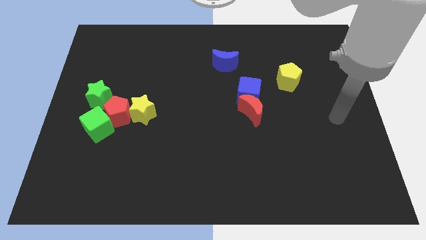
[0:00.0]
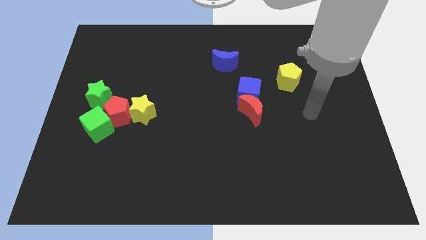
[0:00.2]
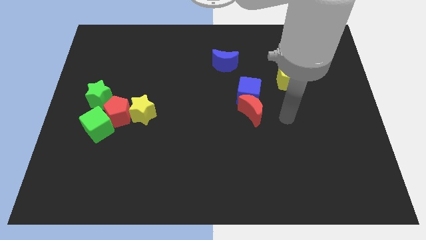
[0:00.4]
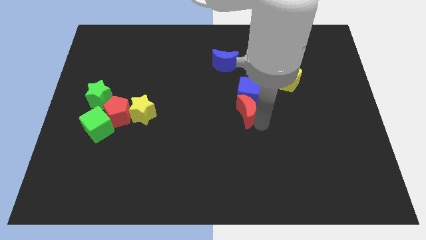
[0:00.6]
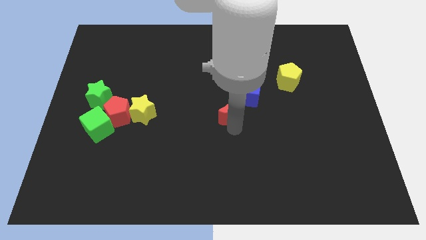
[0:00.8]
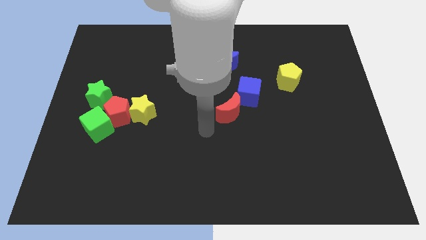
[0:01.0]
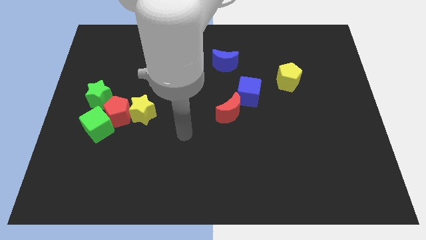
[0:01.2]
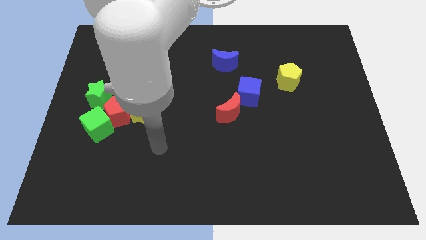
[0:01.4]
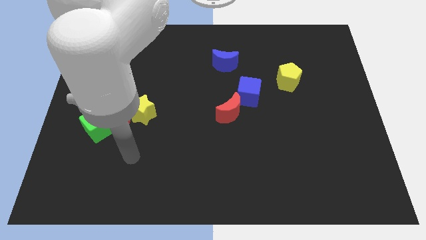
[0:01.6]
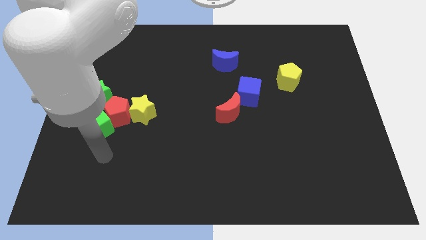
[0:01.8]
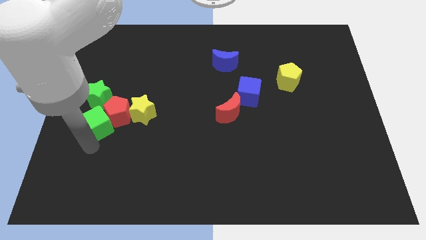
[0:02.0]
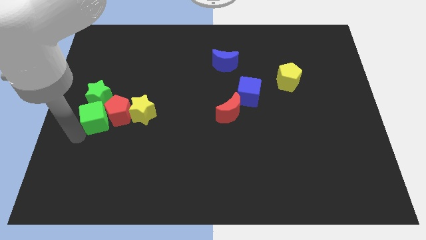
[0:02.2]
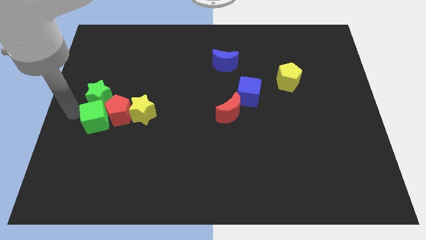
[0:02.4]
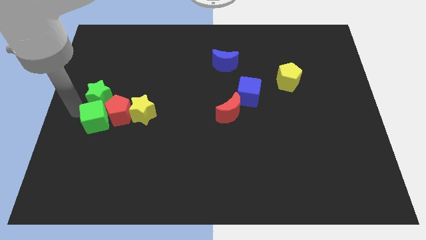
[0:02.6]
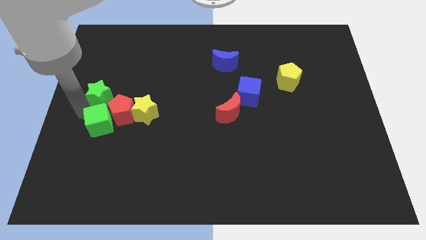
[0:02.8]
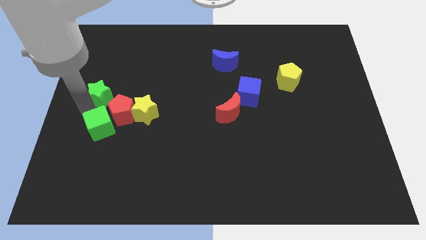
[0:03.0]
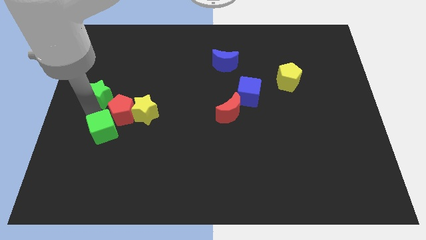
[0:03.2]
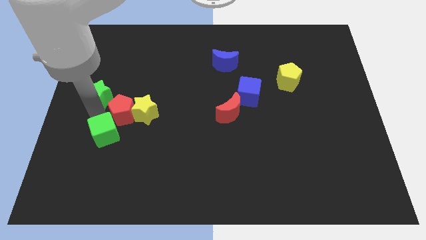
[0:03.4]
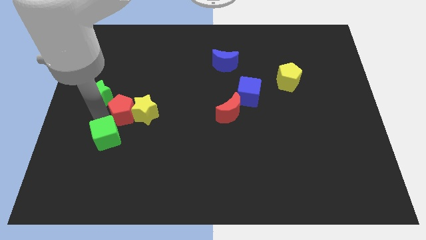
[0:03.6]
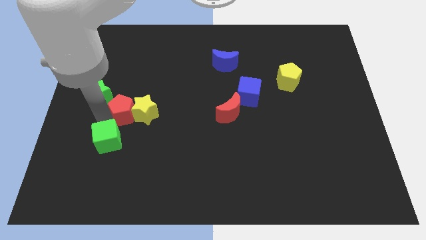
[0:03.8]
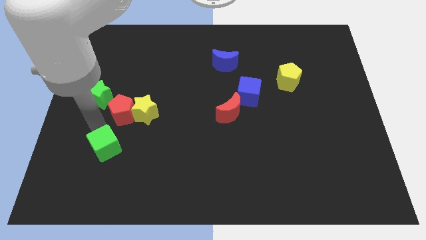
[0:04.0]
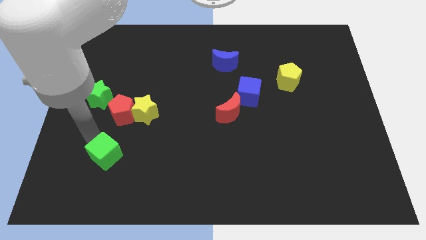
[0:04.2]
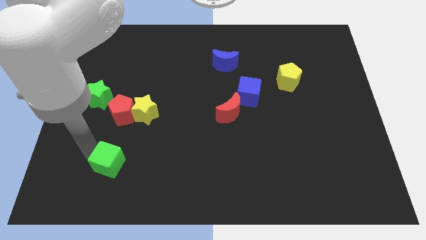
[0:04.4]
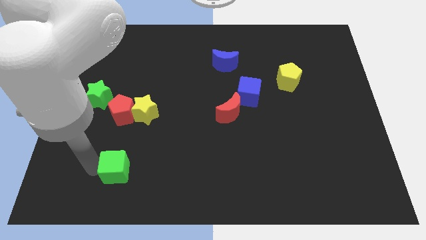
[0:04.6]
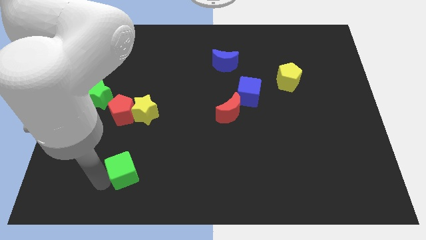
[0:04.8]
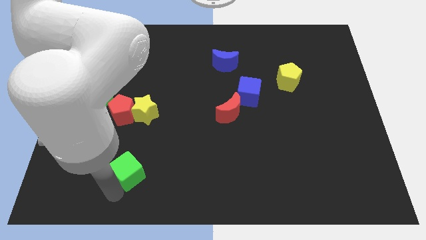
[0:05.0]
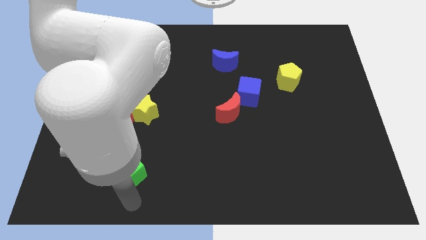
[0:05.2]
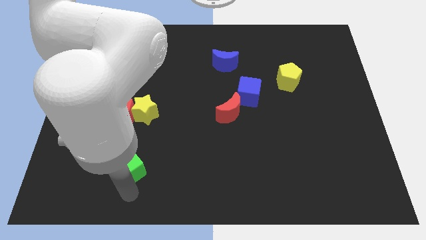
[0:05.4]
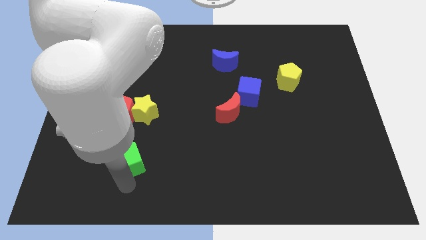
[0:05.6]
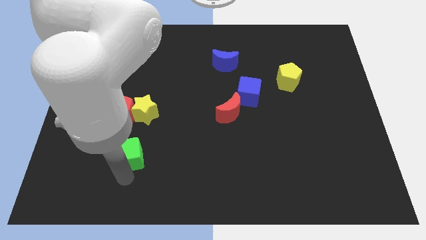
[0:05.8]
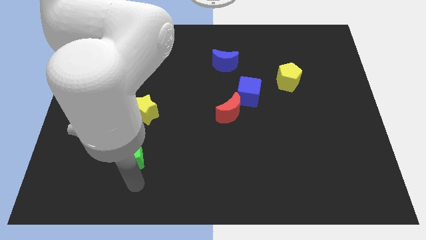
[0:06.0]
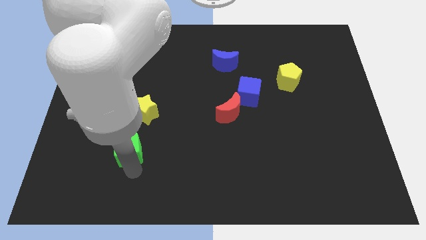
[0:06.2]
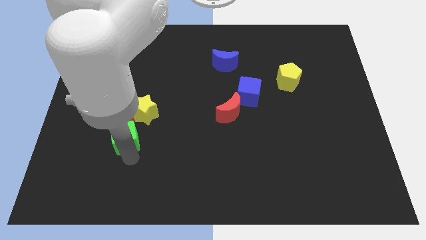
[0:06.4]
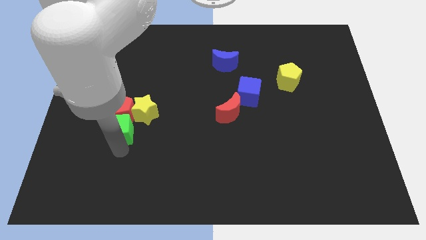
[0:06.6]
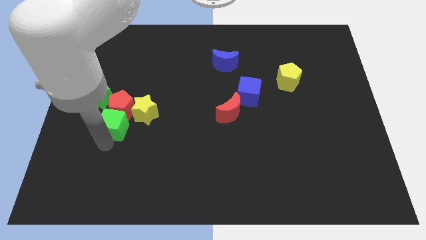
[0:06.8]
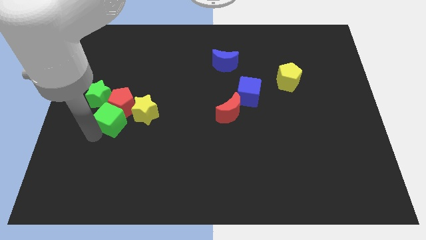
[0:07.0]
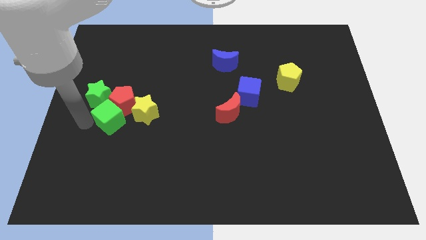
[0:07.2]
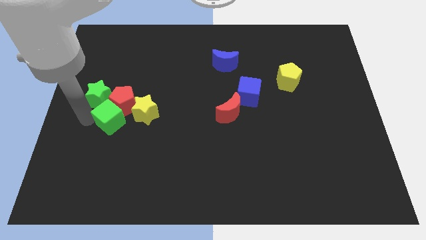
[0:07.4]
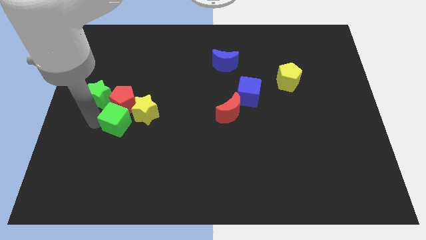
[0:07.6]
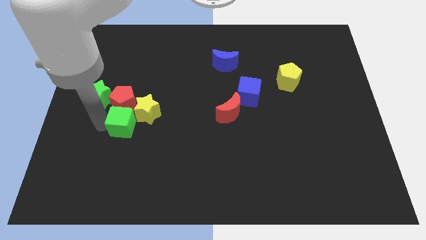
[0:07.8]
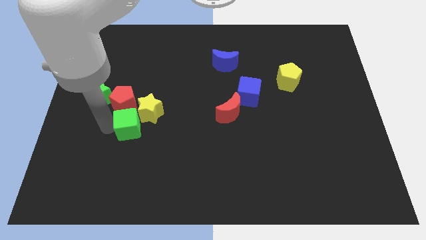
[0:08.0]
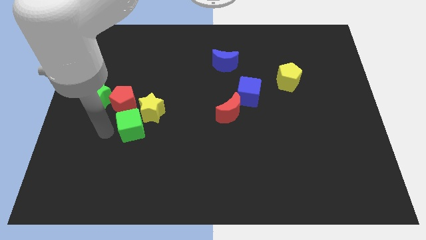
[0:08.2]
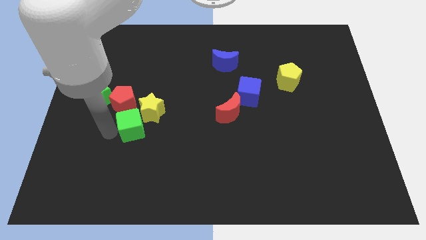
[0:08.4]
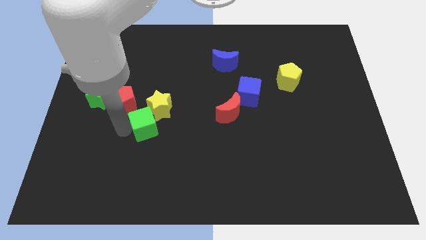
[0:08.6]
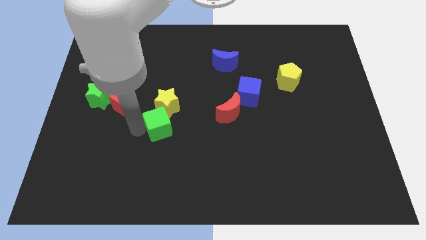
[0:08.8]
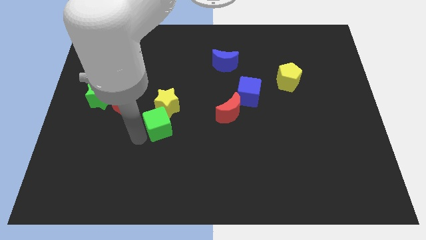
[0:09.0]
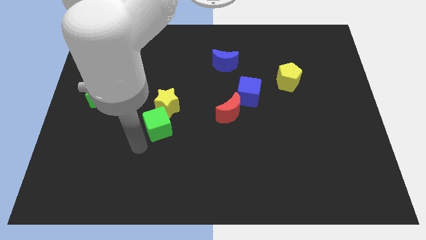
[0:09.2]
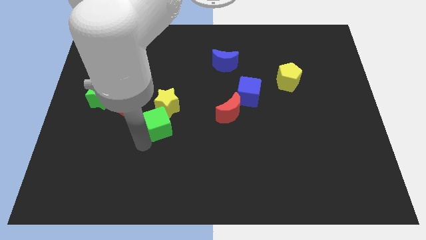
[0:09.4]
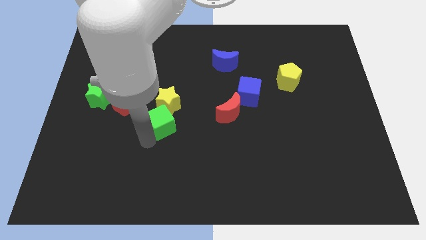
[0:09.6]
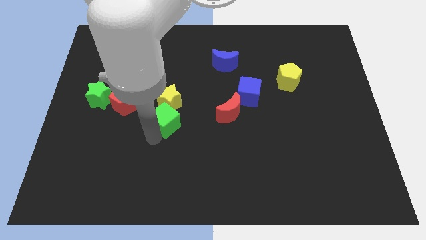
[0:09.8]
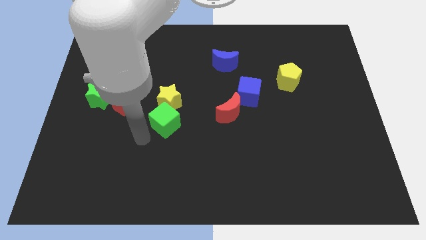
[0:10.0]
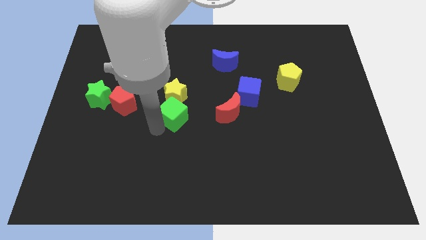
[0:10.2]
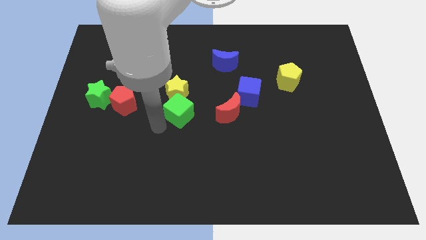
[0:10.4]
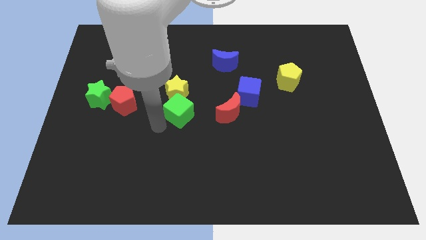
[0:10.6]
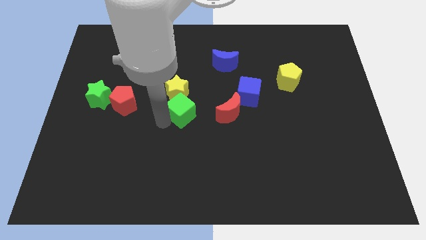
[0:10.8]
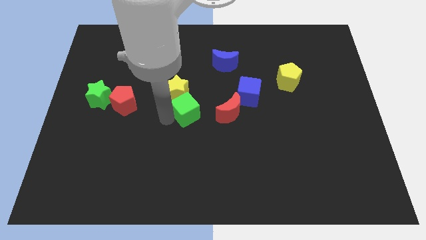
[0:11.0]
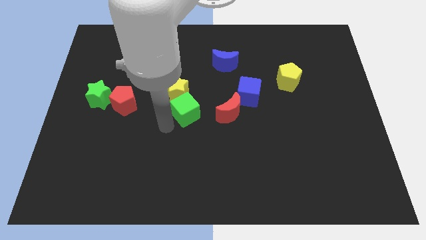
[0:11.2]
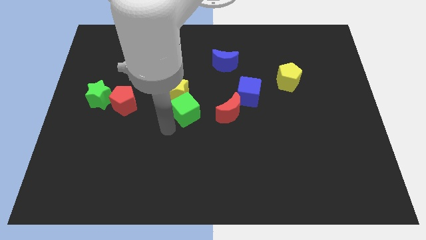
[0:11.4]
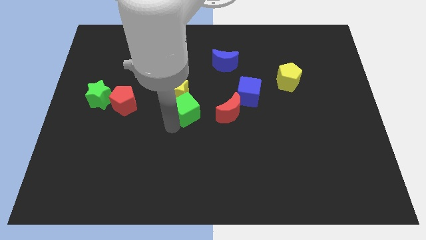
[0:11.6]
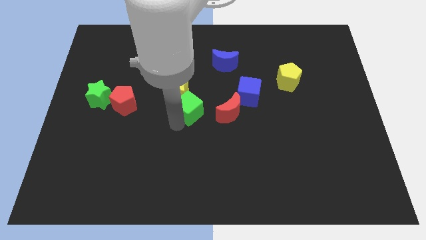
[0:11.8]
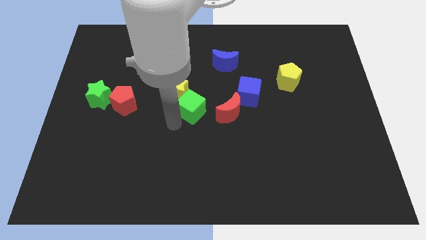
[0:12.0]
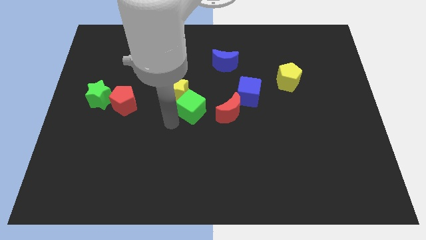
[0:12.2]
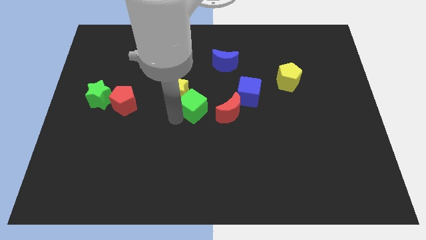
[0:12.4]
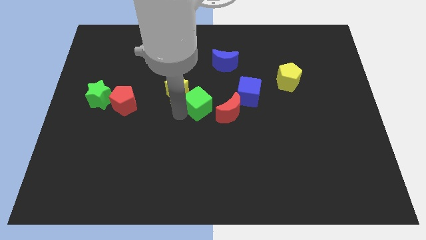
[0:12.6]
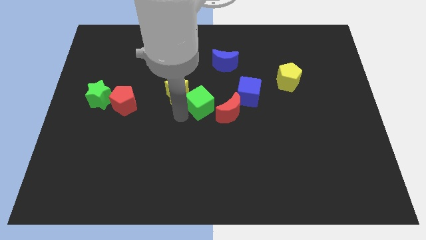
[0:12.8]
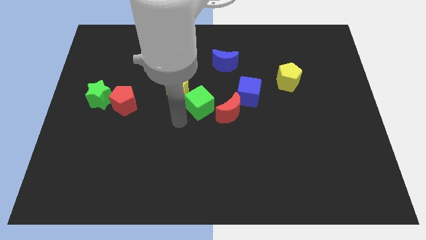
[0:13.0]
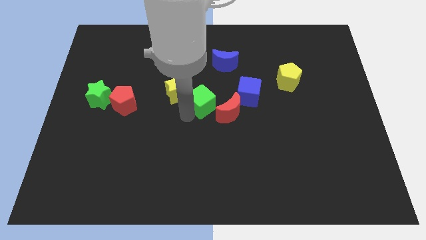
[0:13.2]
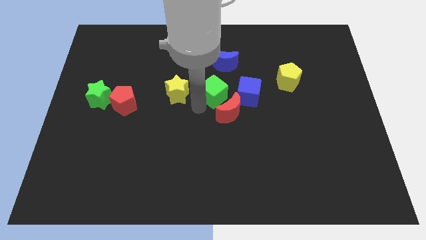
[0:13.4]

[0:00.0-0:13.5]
move the green cube to the top side of the red moon

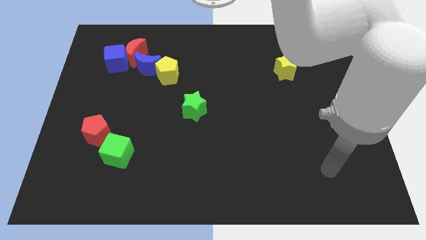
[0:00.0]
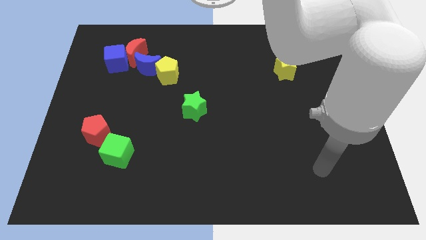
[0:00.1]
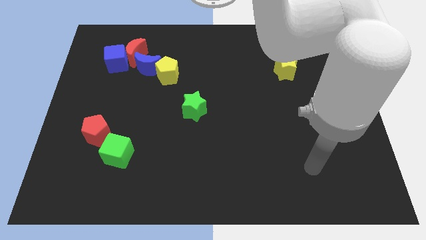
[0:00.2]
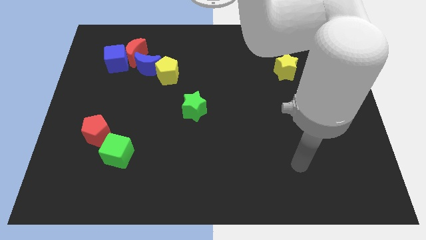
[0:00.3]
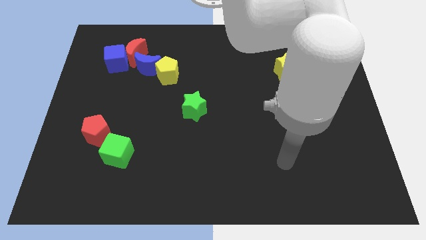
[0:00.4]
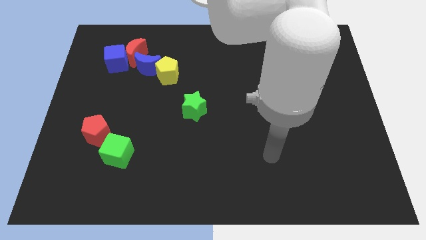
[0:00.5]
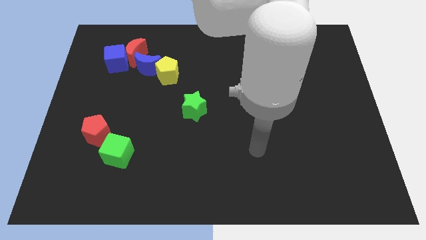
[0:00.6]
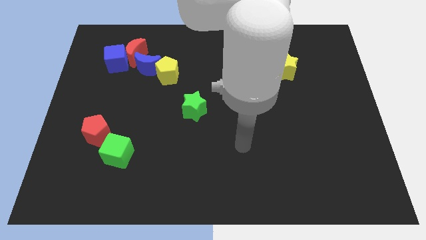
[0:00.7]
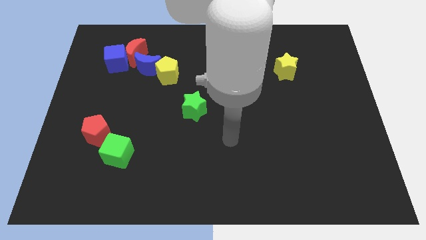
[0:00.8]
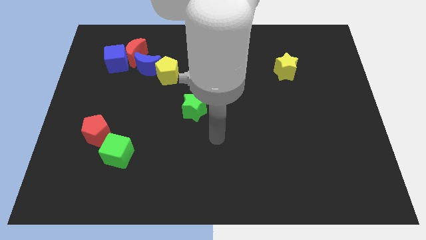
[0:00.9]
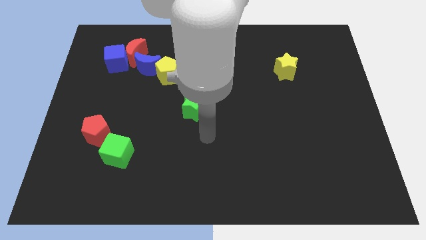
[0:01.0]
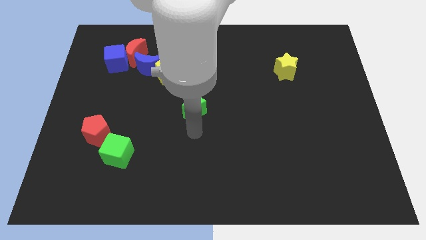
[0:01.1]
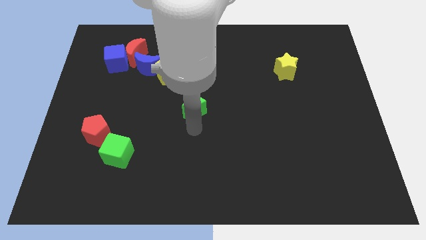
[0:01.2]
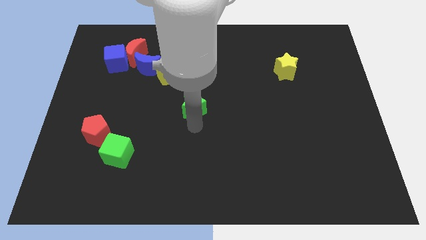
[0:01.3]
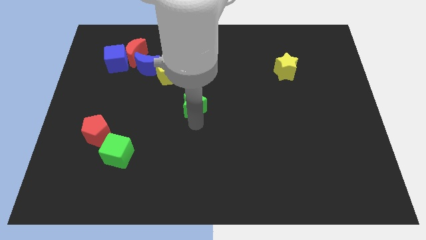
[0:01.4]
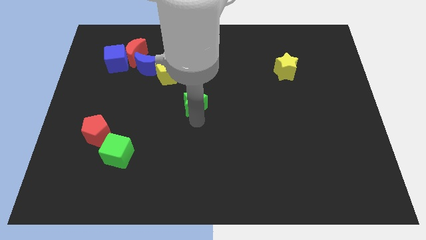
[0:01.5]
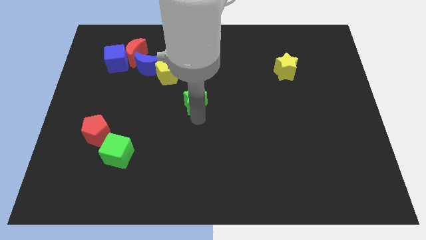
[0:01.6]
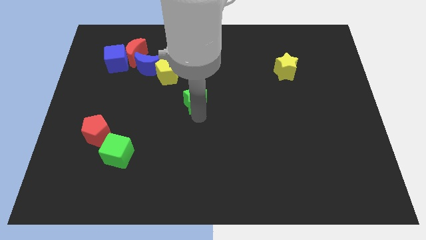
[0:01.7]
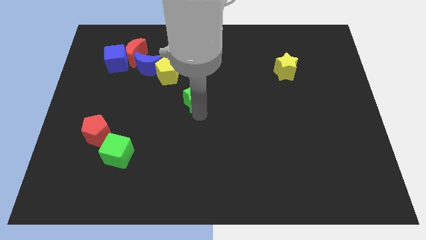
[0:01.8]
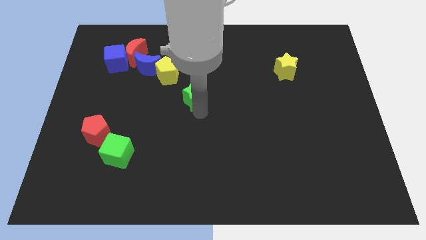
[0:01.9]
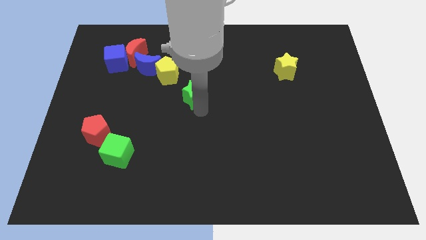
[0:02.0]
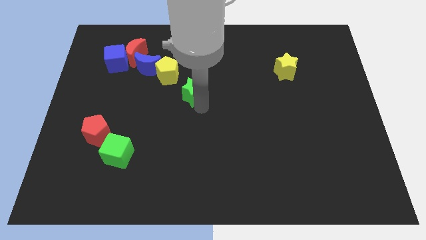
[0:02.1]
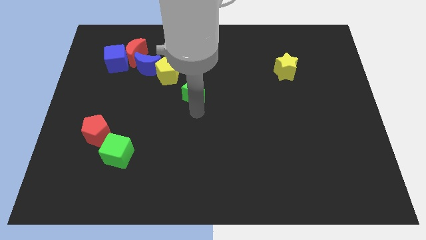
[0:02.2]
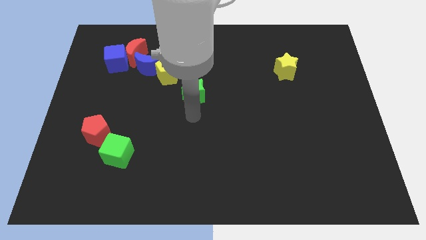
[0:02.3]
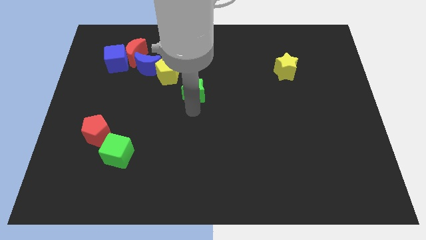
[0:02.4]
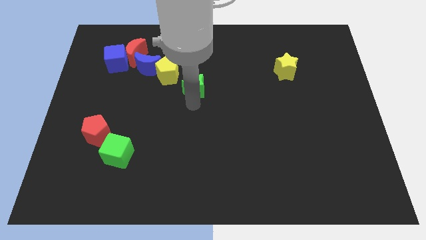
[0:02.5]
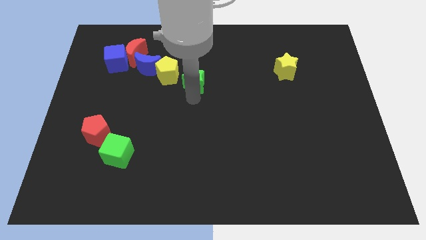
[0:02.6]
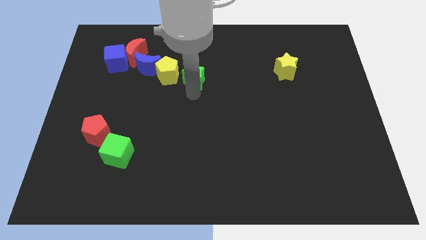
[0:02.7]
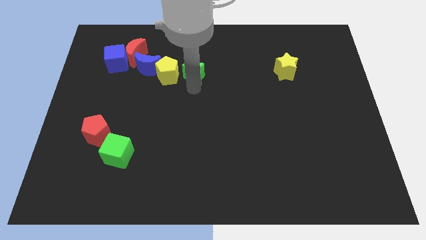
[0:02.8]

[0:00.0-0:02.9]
slide the green star diagonally up and to the right of the yellow pentagon
